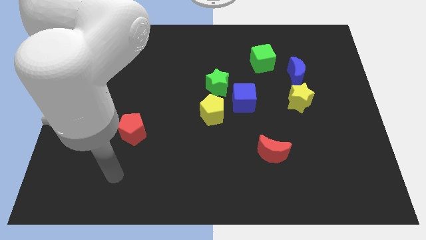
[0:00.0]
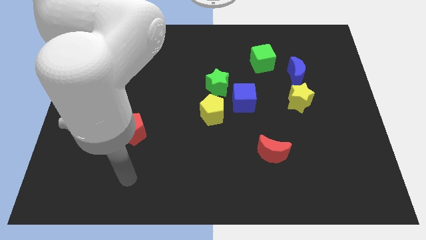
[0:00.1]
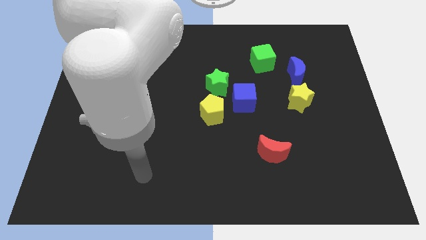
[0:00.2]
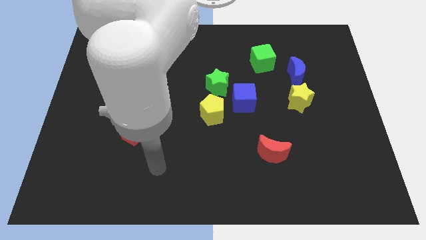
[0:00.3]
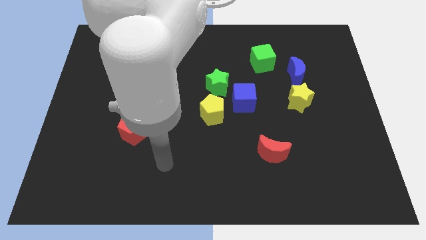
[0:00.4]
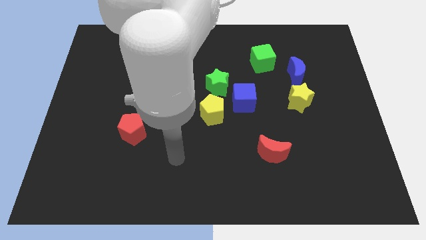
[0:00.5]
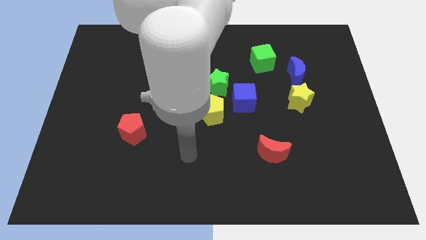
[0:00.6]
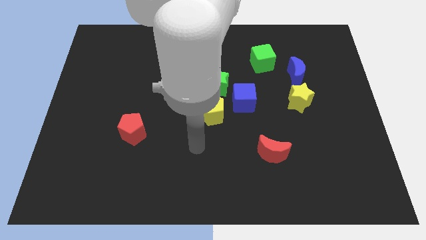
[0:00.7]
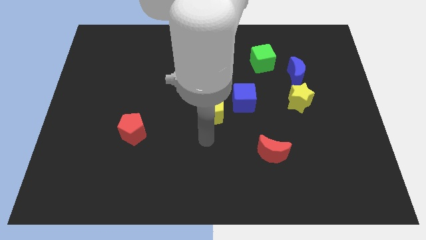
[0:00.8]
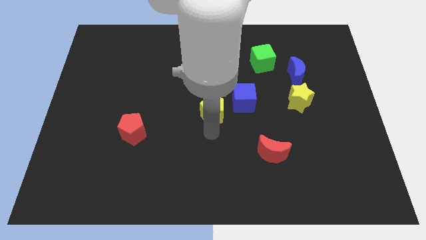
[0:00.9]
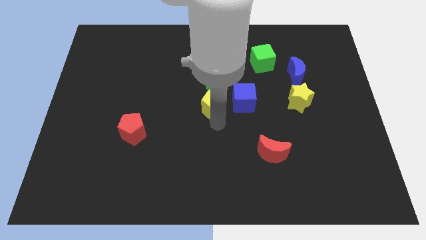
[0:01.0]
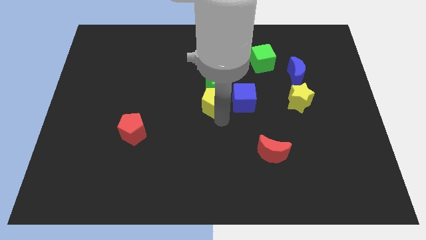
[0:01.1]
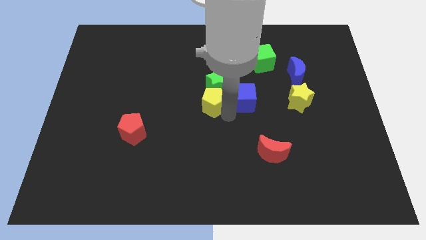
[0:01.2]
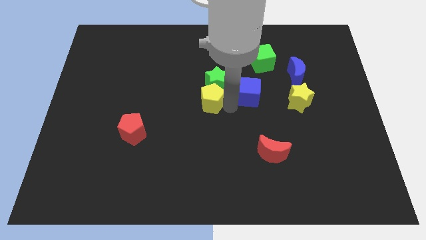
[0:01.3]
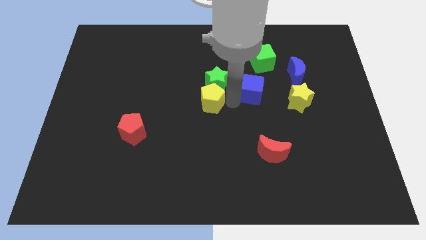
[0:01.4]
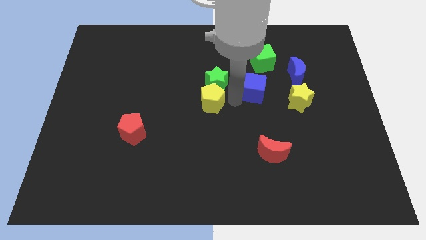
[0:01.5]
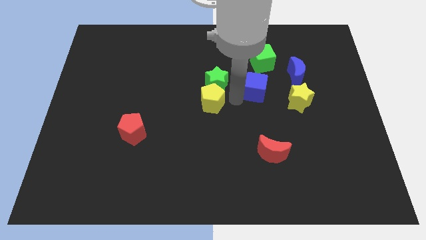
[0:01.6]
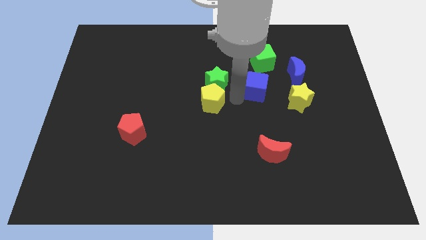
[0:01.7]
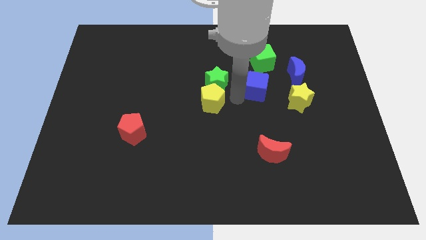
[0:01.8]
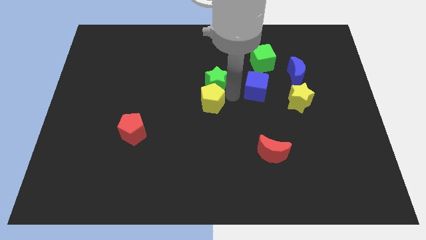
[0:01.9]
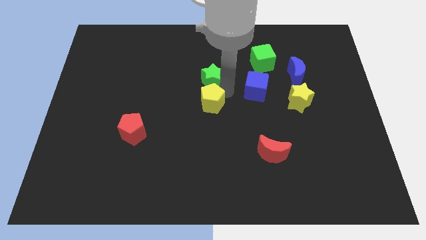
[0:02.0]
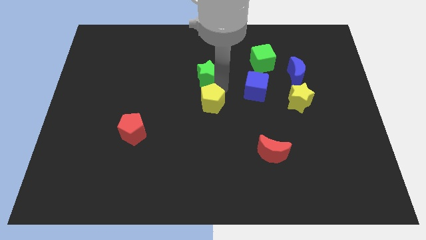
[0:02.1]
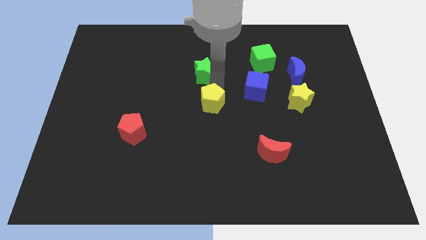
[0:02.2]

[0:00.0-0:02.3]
move the green star away from the blue cube and yellow pentagon

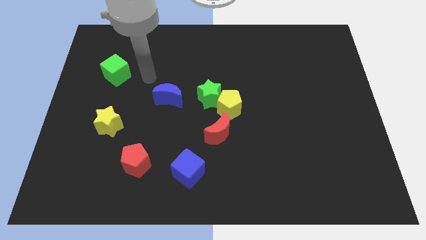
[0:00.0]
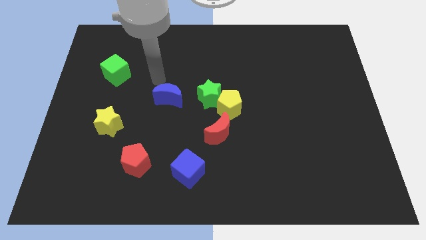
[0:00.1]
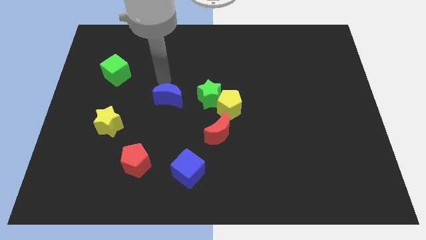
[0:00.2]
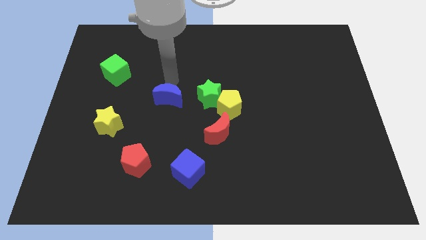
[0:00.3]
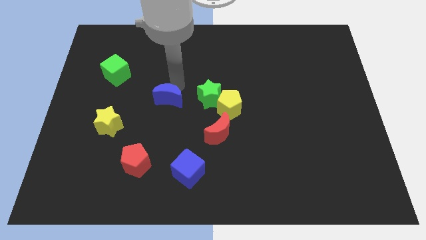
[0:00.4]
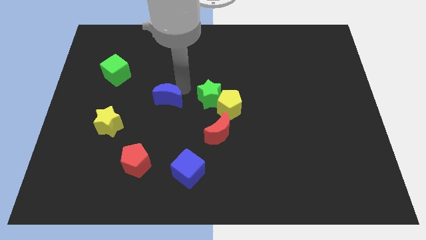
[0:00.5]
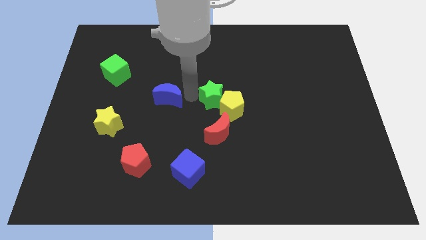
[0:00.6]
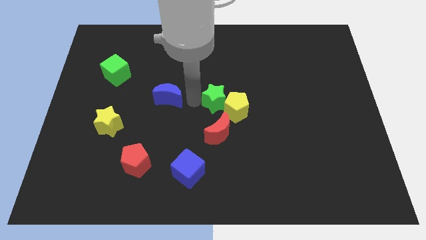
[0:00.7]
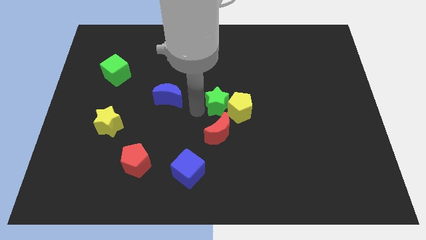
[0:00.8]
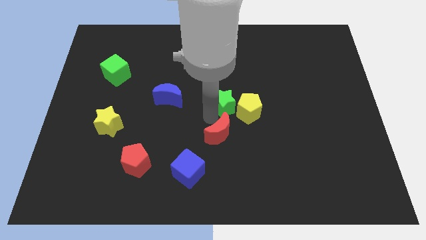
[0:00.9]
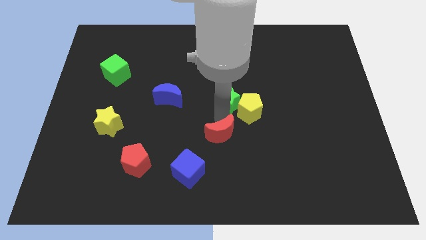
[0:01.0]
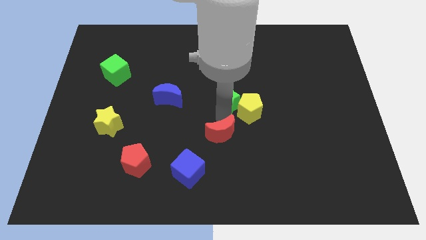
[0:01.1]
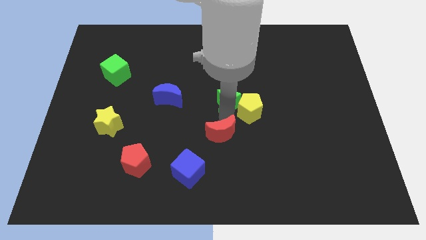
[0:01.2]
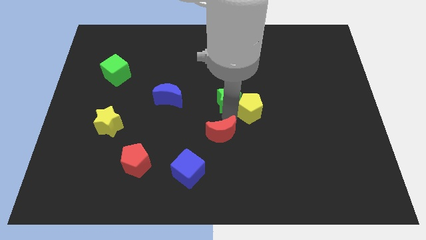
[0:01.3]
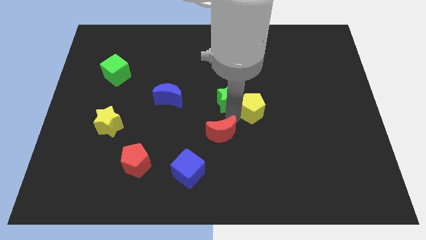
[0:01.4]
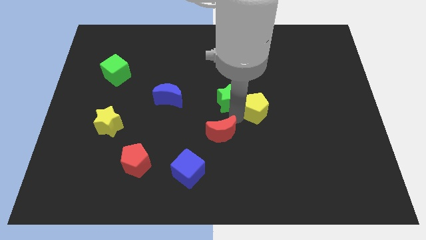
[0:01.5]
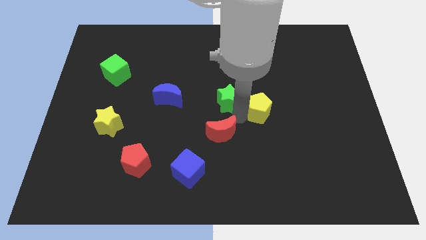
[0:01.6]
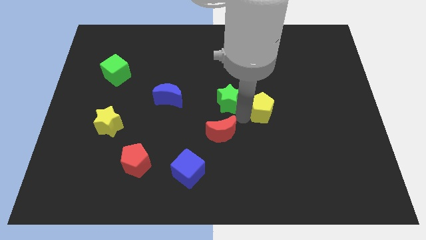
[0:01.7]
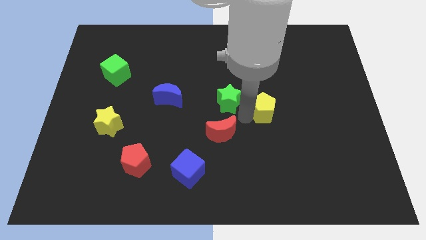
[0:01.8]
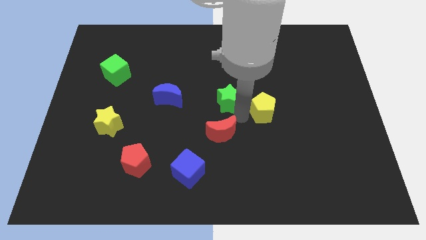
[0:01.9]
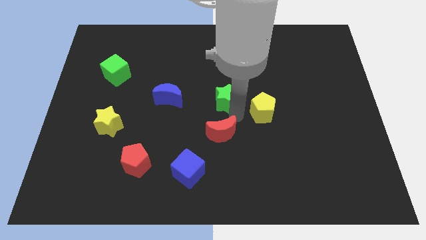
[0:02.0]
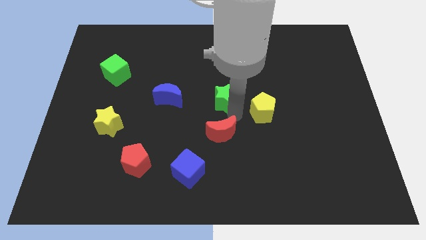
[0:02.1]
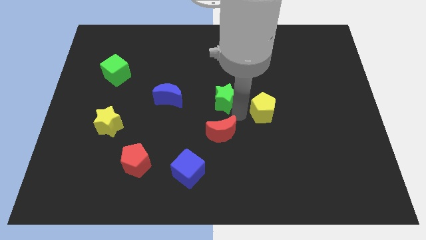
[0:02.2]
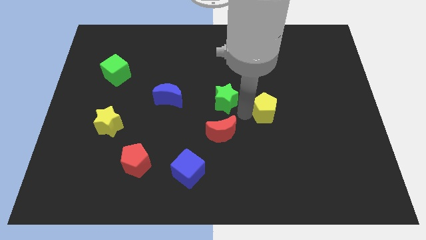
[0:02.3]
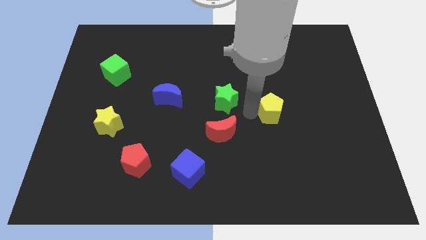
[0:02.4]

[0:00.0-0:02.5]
pull the yellow pentagon apart from the green star and red moon

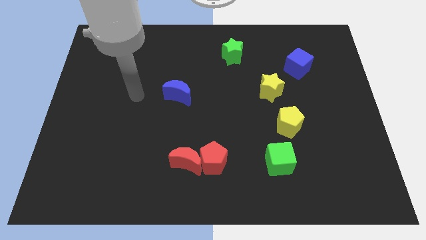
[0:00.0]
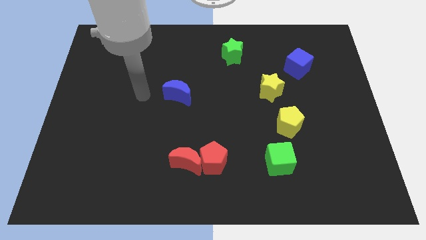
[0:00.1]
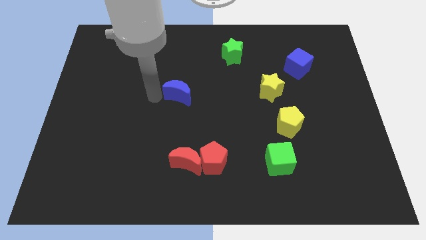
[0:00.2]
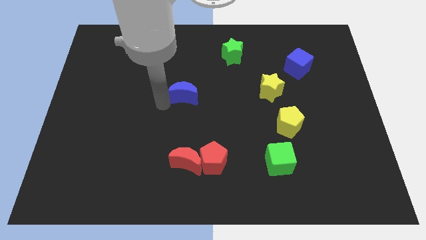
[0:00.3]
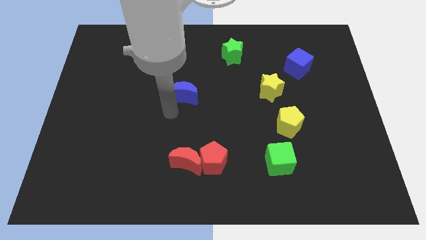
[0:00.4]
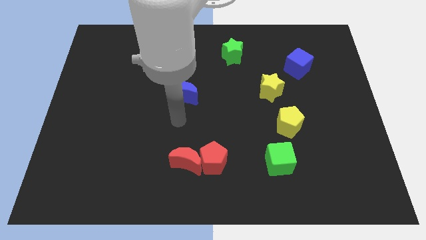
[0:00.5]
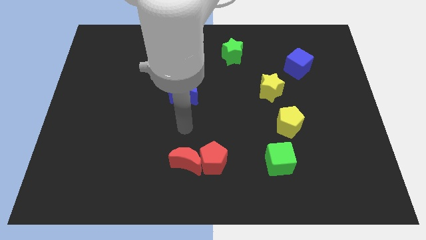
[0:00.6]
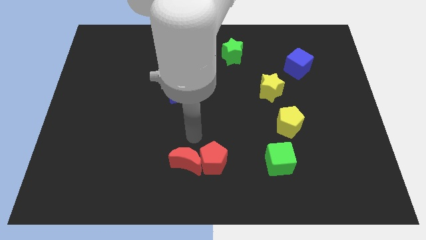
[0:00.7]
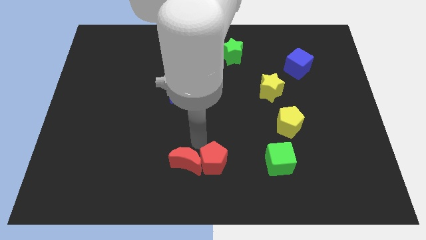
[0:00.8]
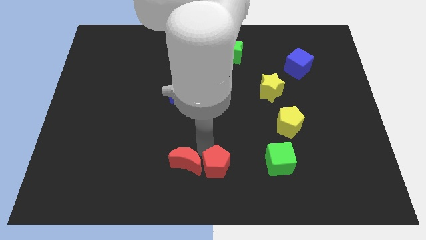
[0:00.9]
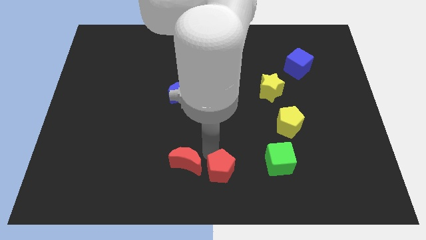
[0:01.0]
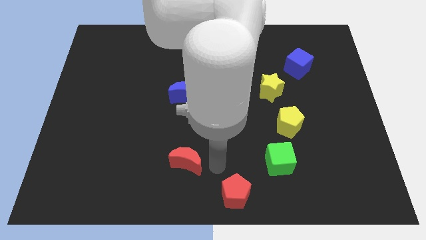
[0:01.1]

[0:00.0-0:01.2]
pull the red moon apart from the red pentagon

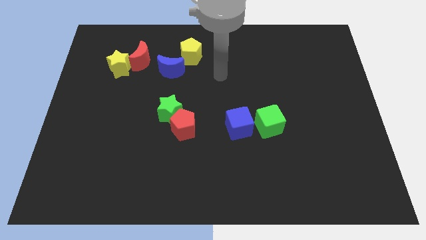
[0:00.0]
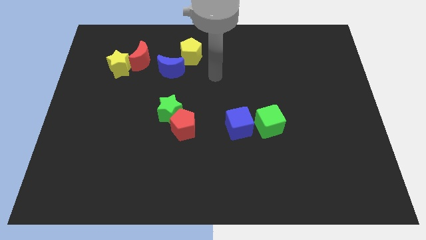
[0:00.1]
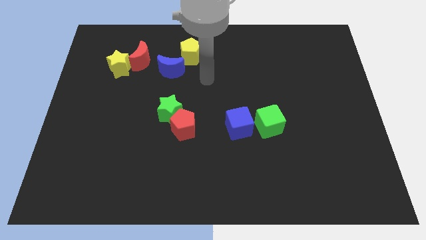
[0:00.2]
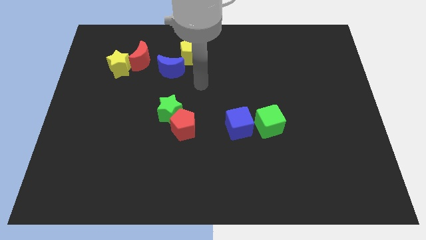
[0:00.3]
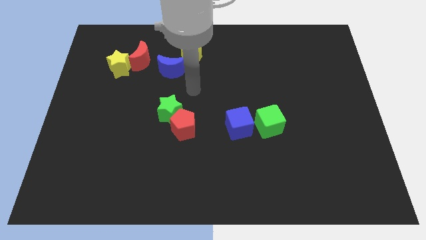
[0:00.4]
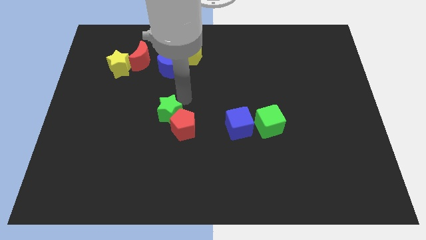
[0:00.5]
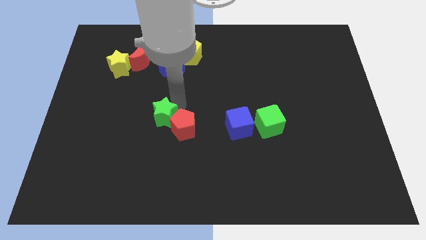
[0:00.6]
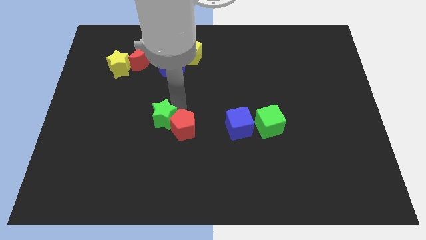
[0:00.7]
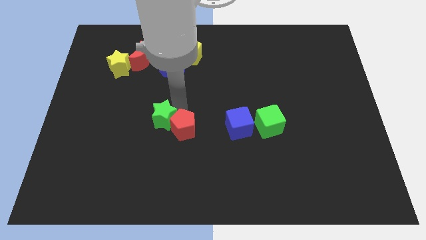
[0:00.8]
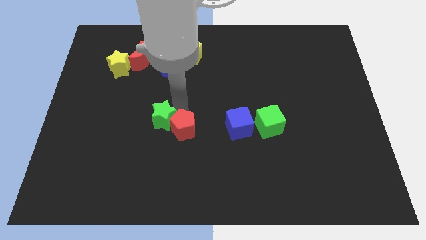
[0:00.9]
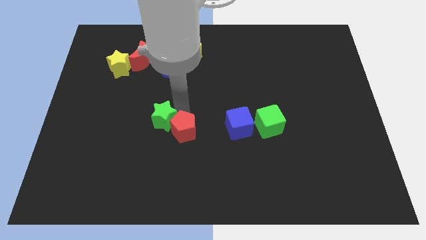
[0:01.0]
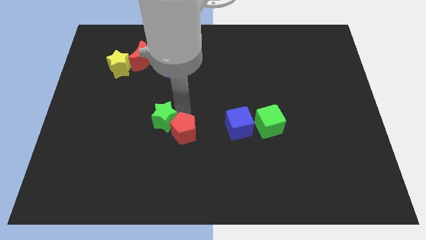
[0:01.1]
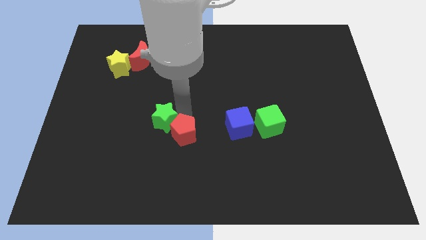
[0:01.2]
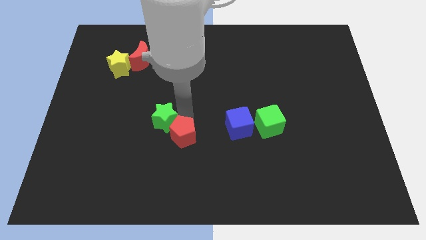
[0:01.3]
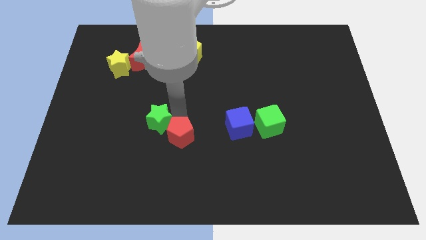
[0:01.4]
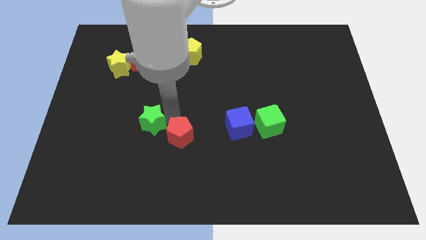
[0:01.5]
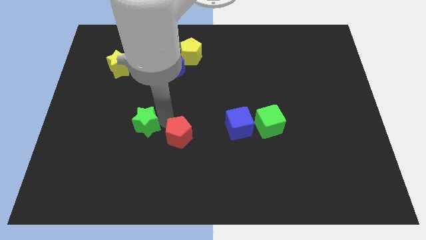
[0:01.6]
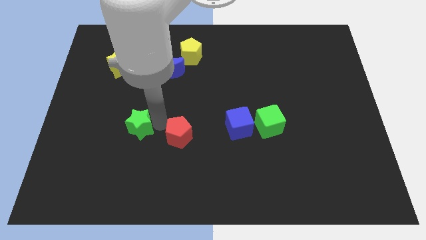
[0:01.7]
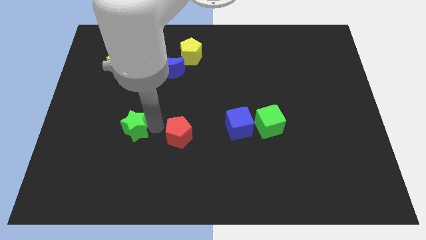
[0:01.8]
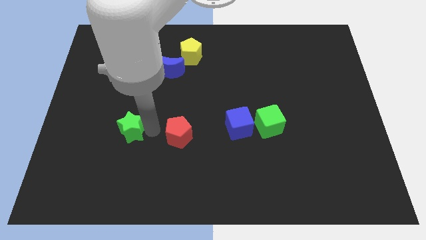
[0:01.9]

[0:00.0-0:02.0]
pull the red pentagon apart from the green star

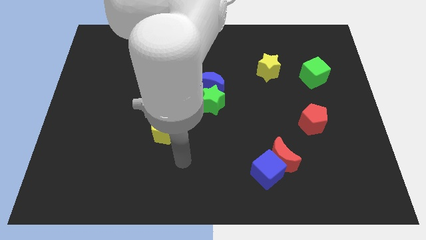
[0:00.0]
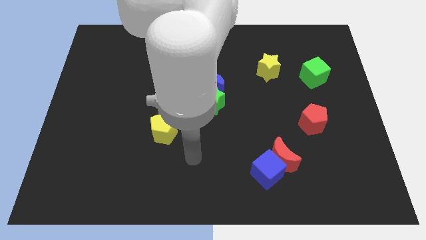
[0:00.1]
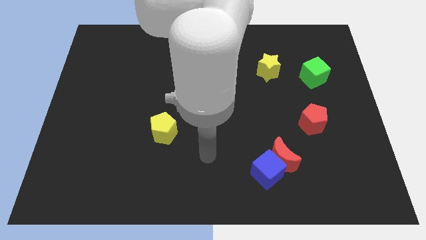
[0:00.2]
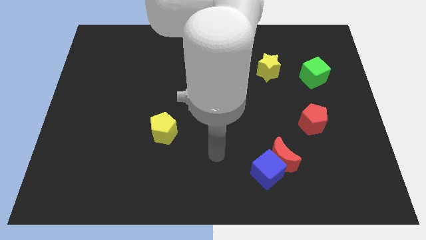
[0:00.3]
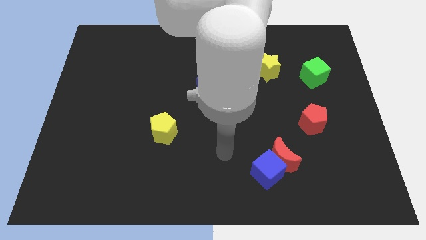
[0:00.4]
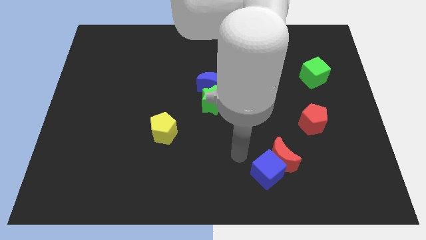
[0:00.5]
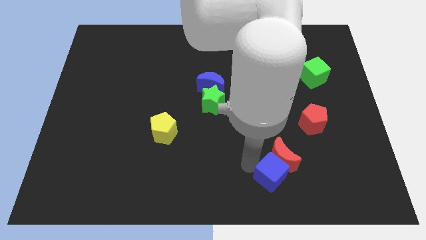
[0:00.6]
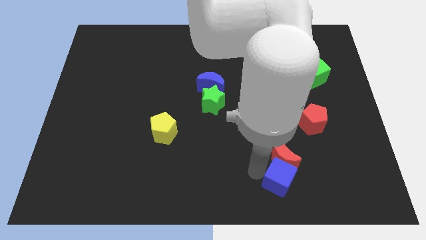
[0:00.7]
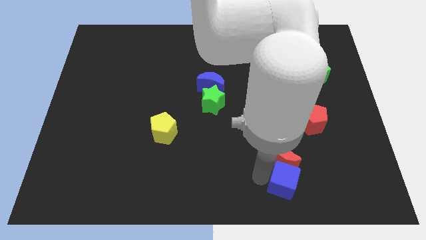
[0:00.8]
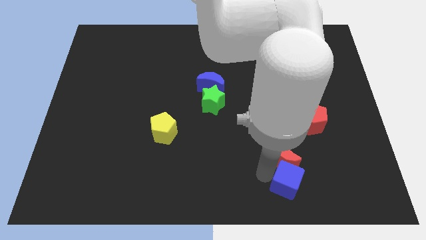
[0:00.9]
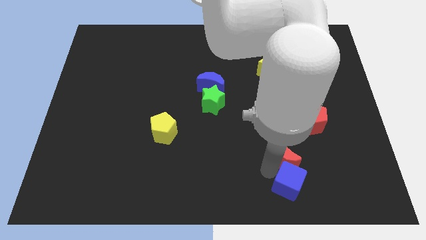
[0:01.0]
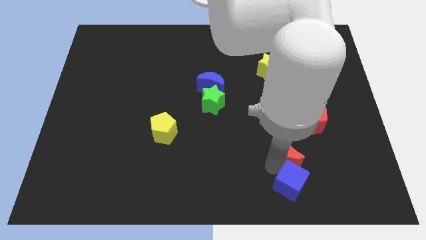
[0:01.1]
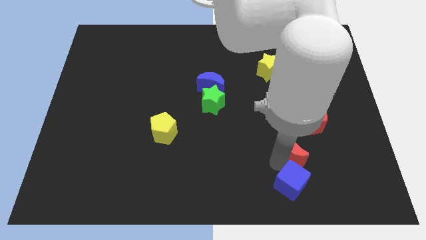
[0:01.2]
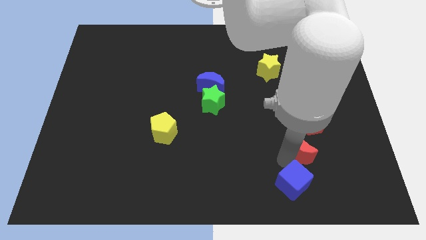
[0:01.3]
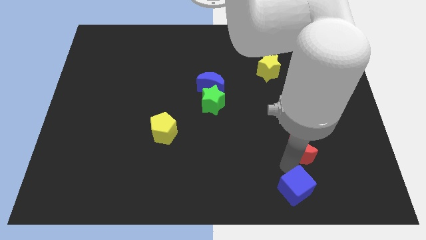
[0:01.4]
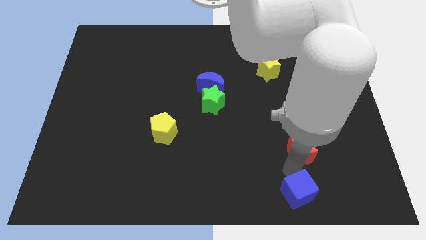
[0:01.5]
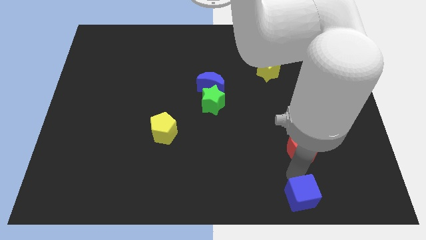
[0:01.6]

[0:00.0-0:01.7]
pull the red moon apart from the blue cube
